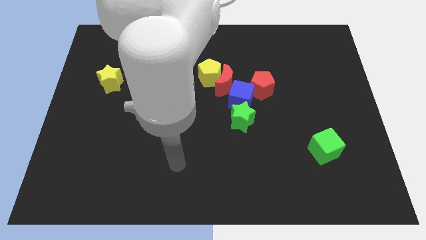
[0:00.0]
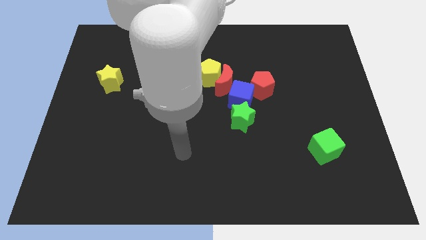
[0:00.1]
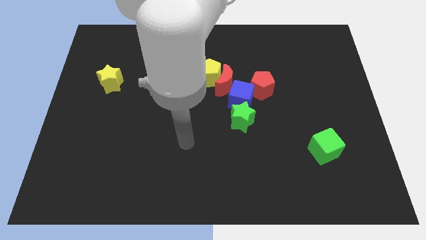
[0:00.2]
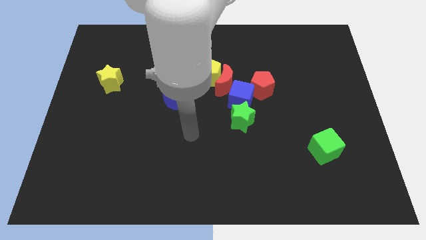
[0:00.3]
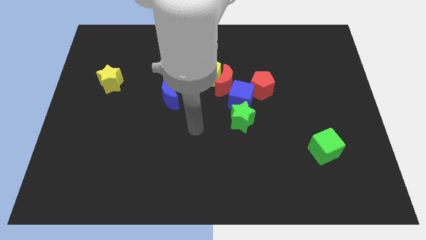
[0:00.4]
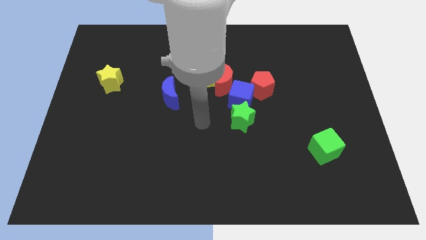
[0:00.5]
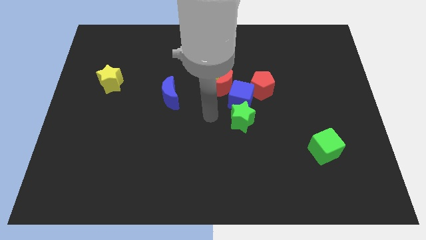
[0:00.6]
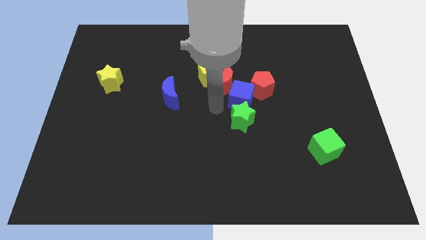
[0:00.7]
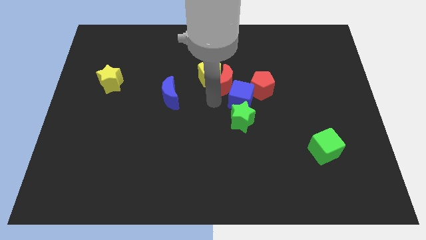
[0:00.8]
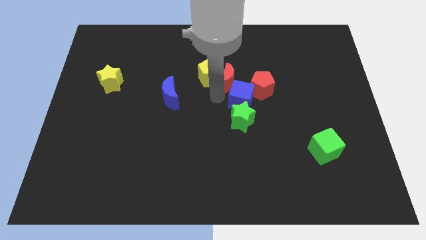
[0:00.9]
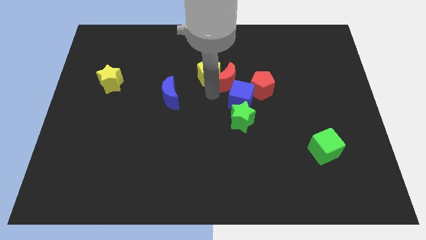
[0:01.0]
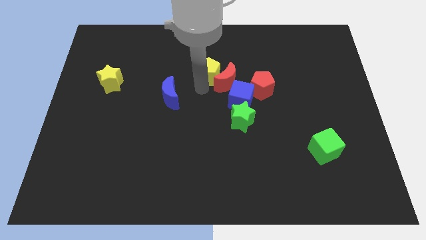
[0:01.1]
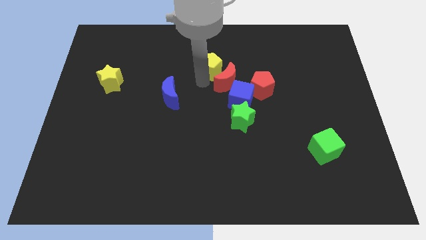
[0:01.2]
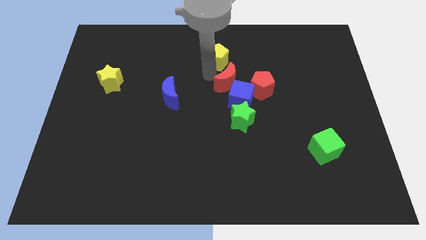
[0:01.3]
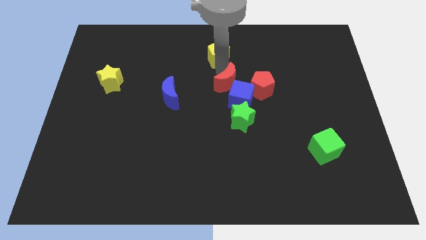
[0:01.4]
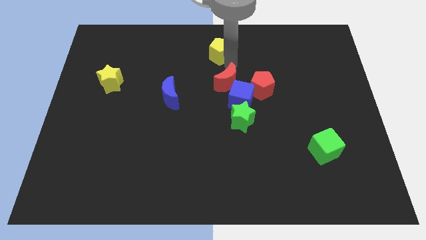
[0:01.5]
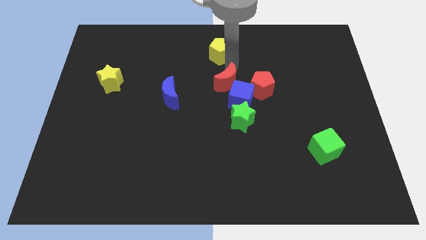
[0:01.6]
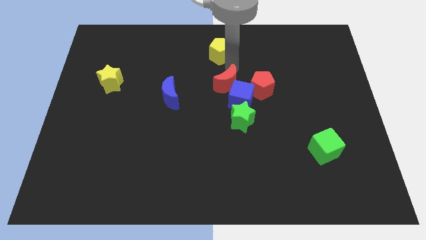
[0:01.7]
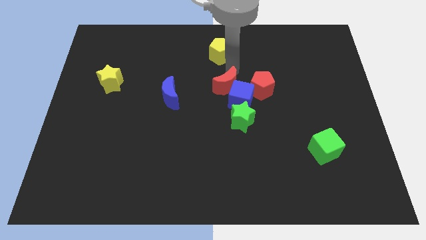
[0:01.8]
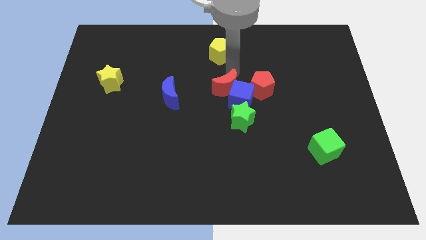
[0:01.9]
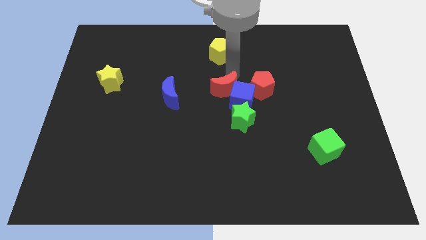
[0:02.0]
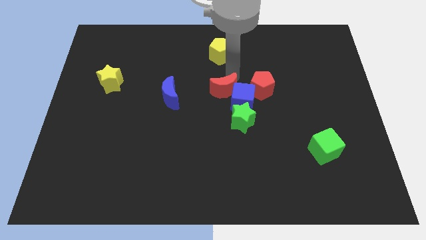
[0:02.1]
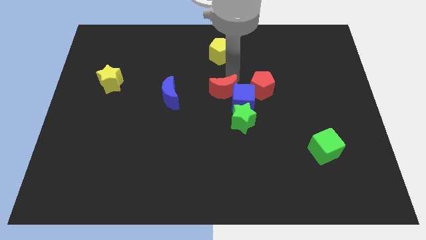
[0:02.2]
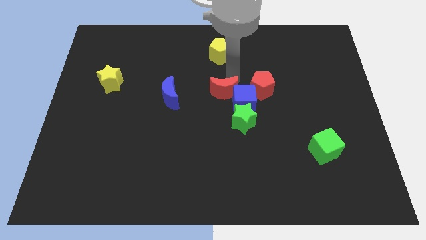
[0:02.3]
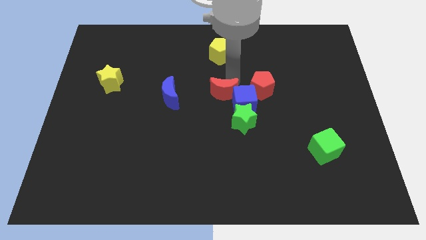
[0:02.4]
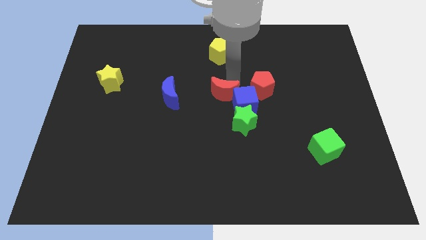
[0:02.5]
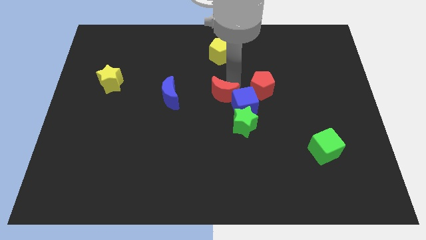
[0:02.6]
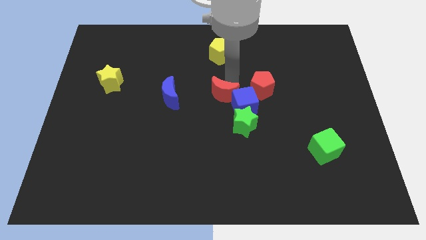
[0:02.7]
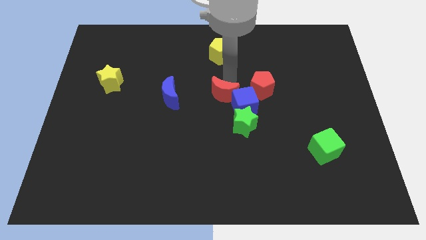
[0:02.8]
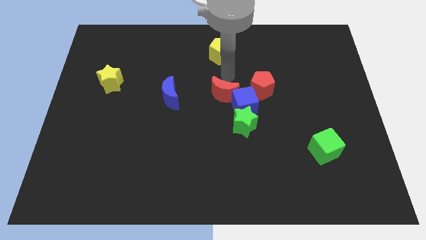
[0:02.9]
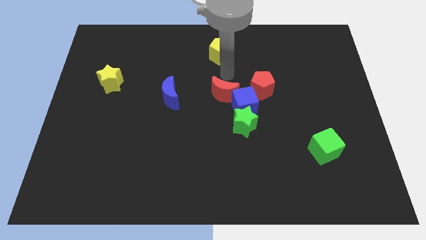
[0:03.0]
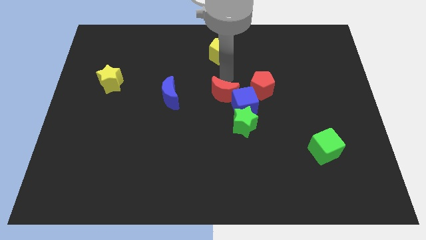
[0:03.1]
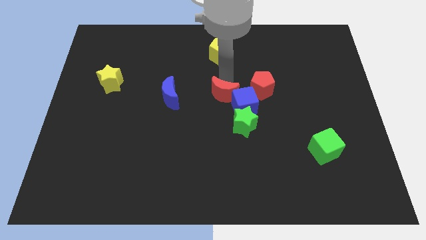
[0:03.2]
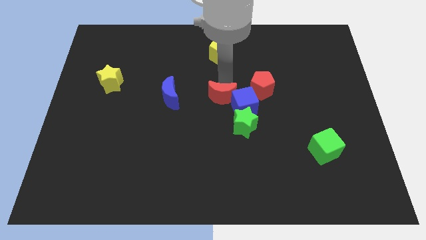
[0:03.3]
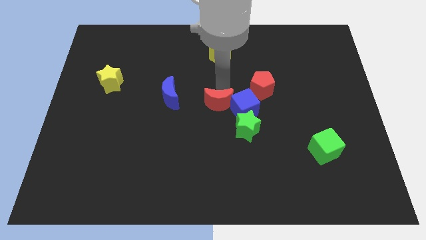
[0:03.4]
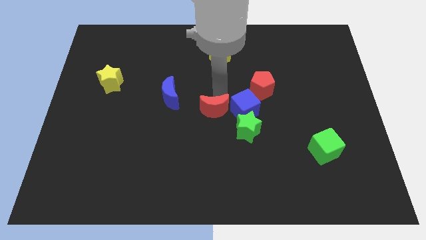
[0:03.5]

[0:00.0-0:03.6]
slide the red moon slightly down

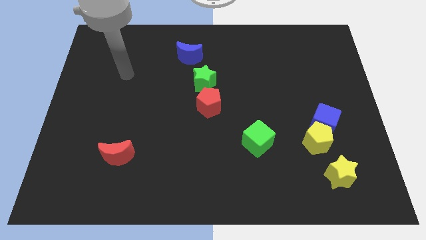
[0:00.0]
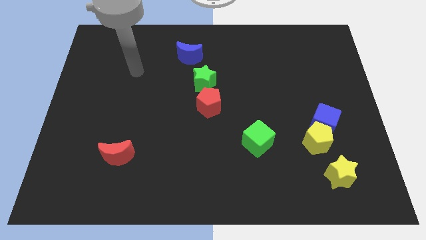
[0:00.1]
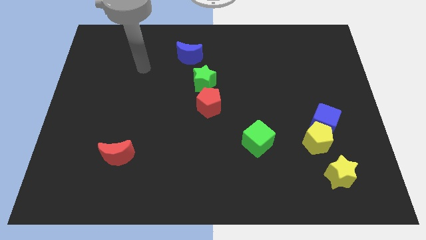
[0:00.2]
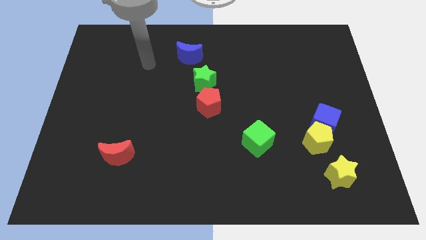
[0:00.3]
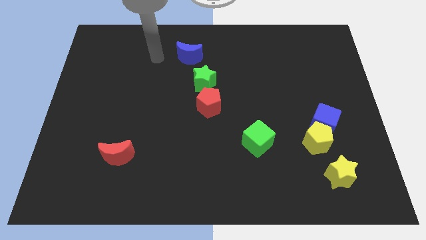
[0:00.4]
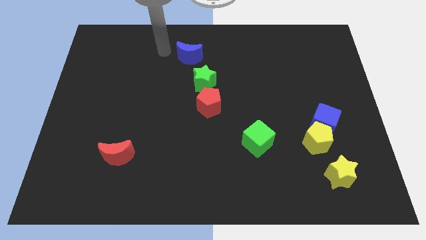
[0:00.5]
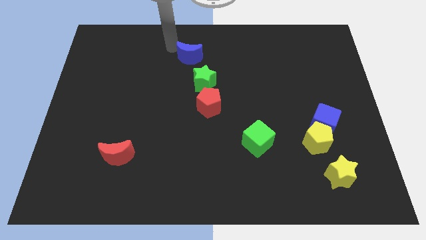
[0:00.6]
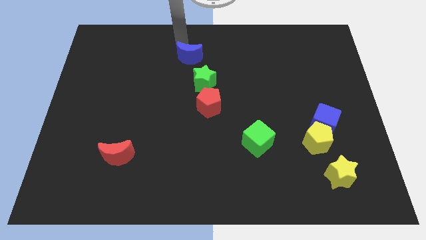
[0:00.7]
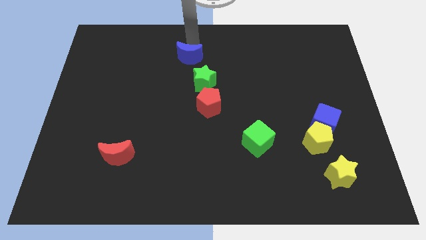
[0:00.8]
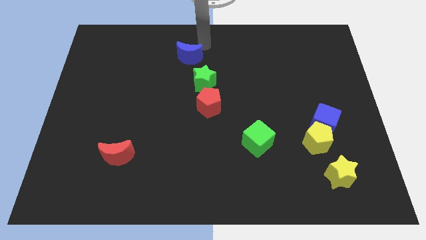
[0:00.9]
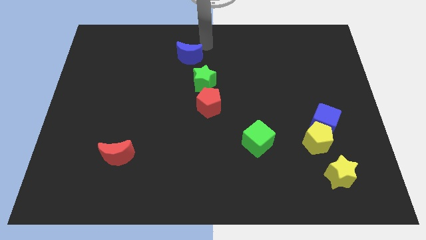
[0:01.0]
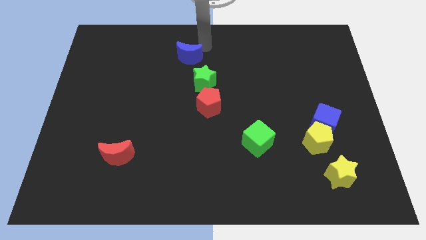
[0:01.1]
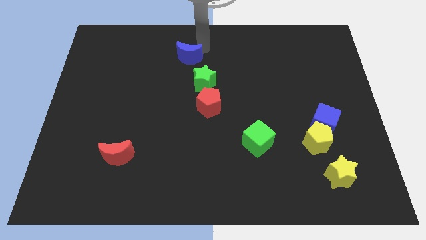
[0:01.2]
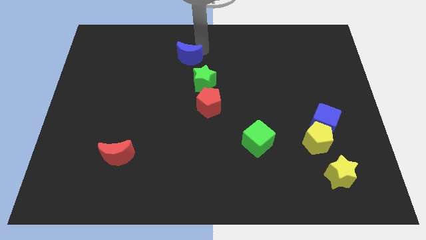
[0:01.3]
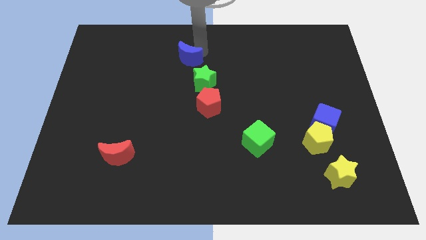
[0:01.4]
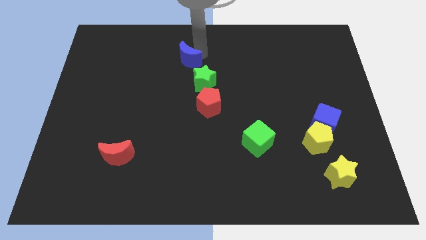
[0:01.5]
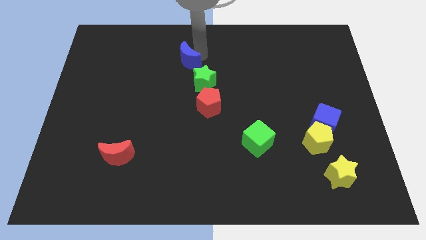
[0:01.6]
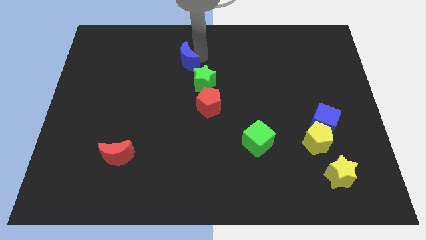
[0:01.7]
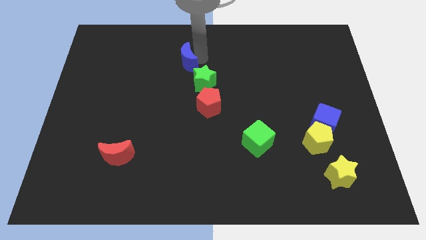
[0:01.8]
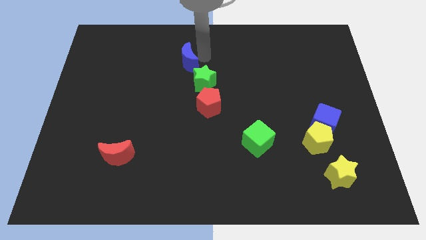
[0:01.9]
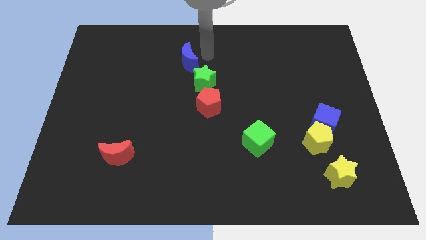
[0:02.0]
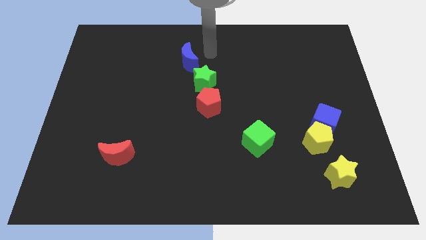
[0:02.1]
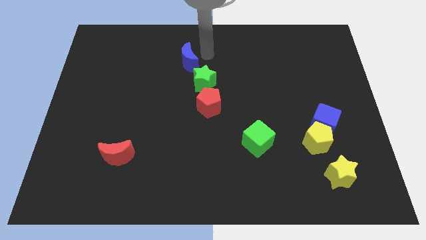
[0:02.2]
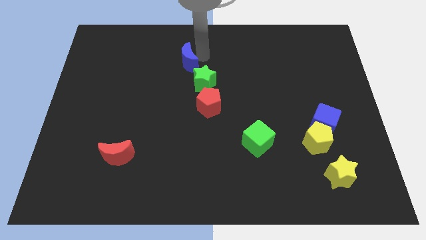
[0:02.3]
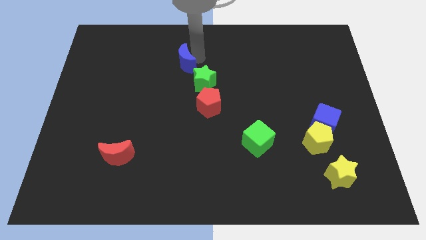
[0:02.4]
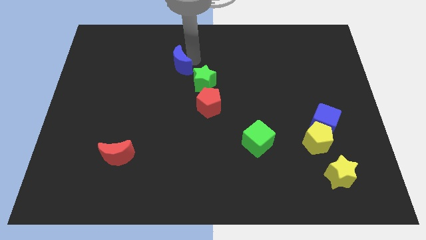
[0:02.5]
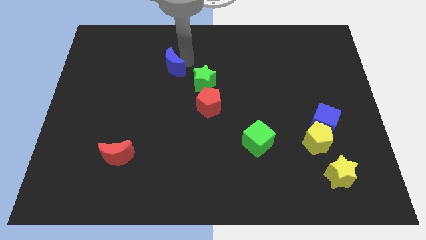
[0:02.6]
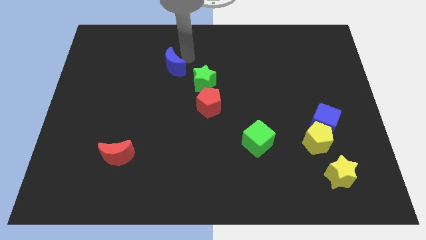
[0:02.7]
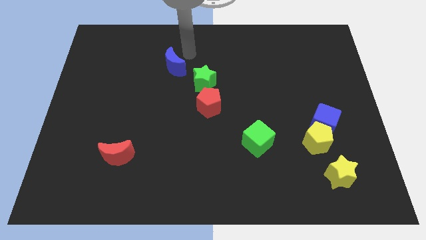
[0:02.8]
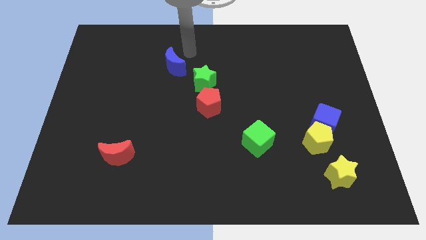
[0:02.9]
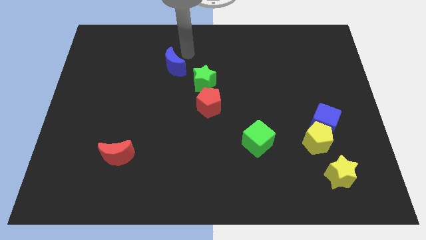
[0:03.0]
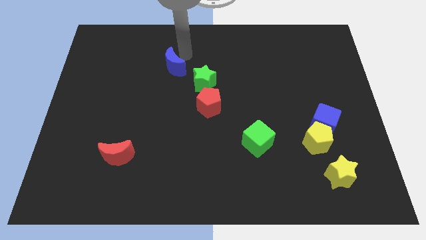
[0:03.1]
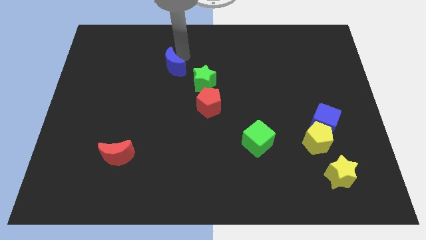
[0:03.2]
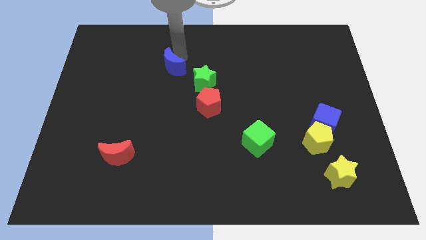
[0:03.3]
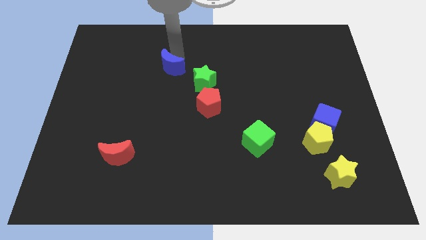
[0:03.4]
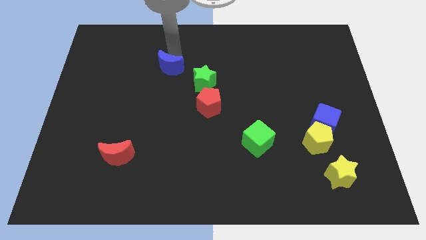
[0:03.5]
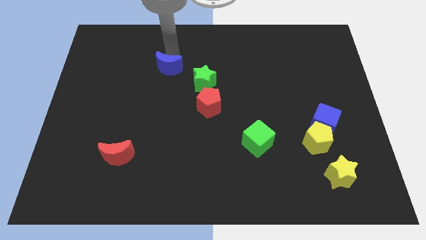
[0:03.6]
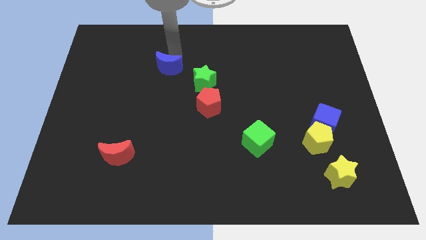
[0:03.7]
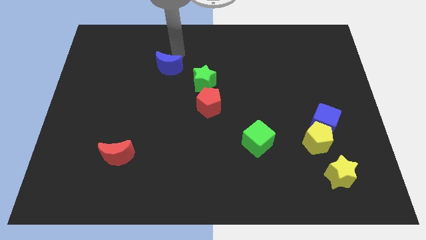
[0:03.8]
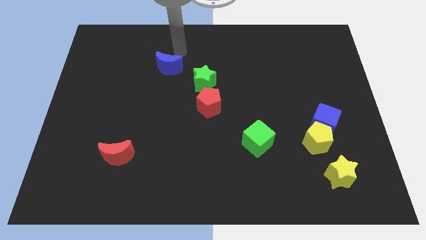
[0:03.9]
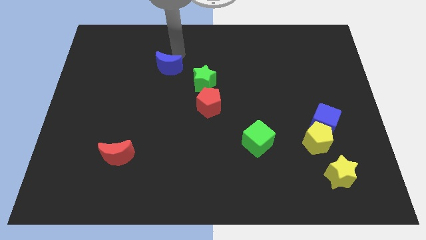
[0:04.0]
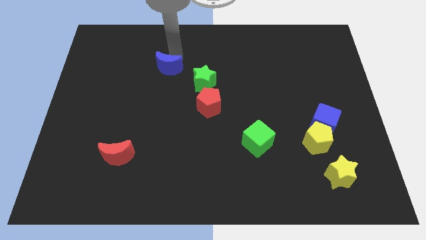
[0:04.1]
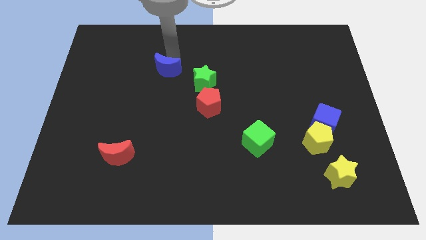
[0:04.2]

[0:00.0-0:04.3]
slide the blue moon a little down and to the left diagonally
